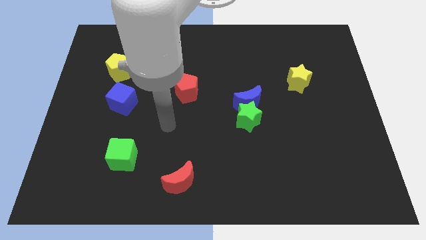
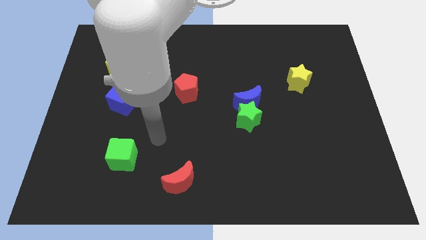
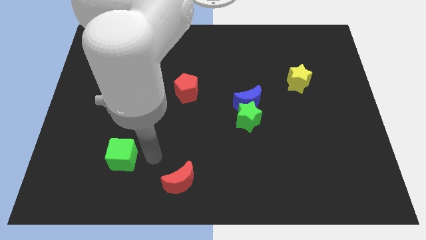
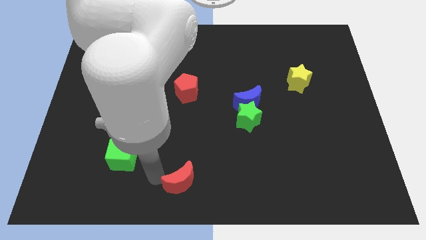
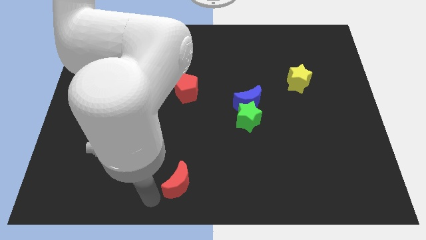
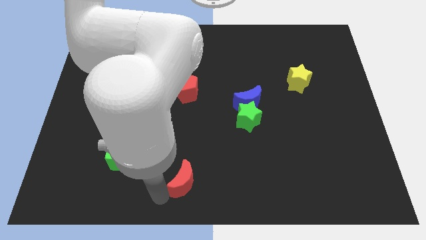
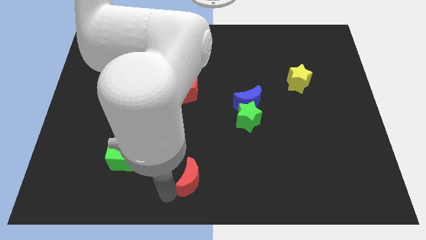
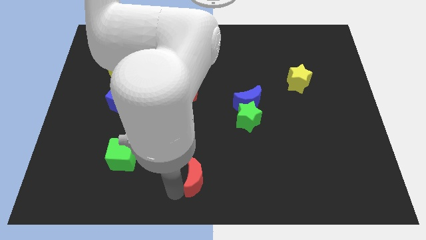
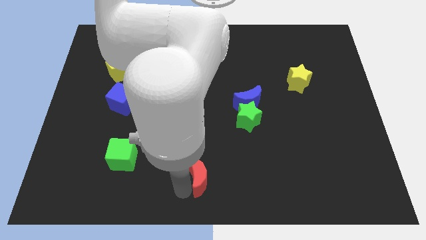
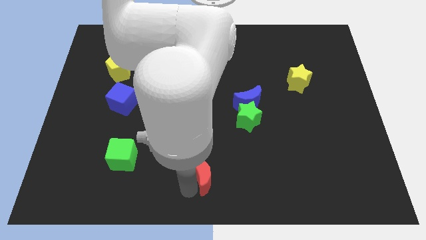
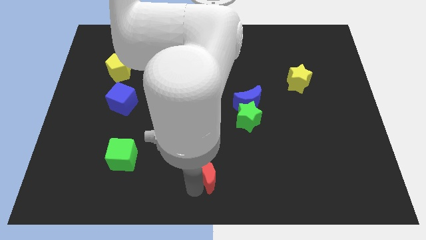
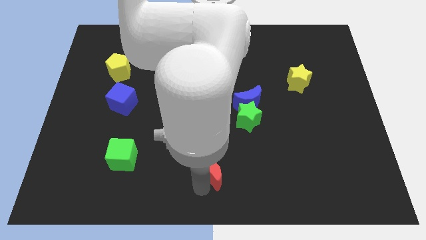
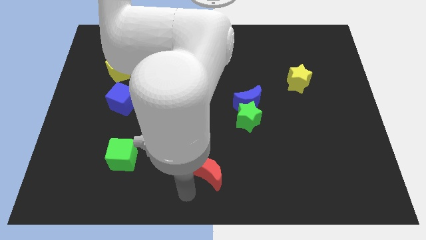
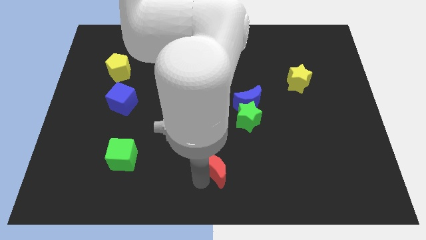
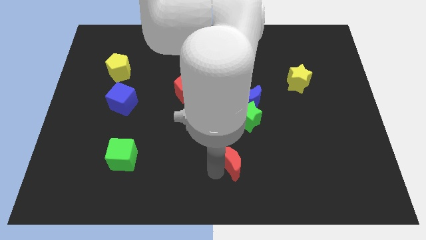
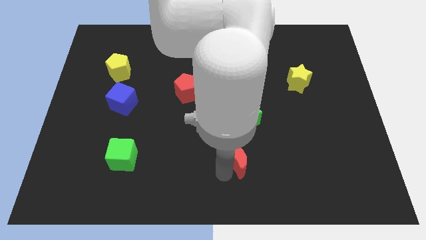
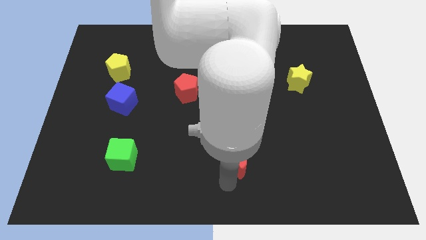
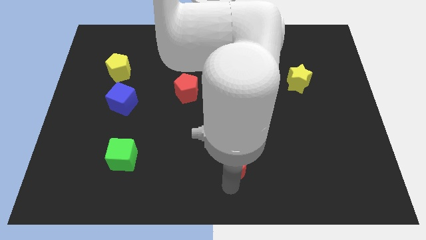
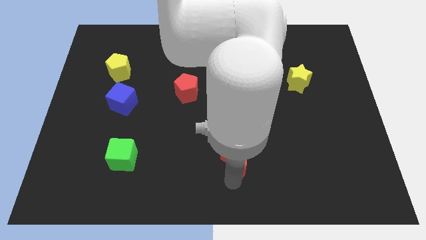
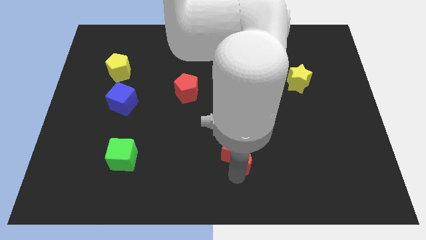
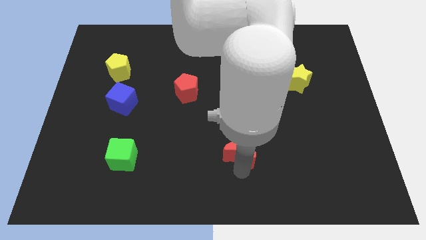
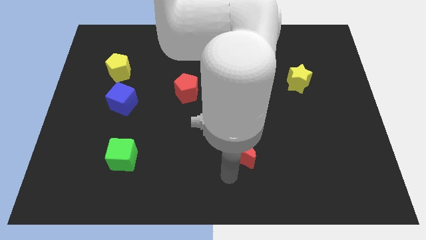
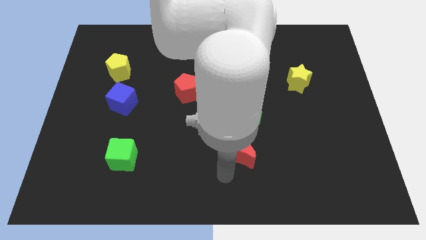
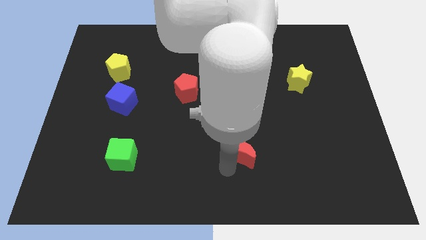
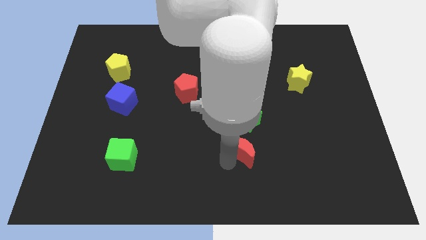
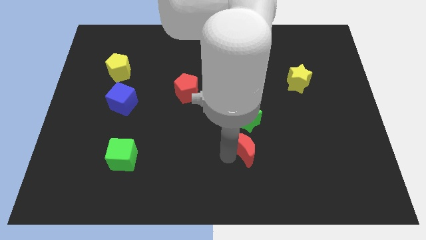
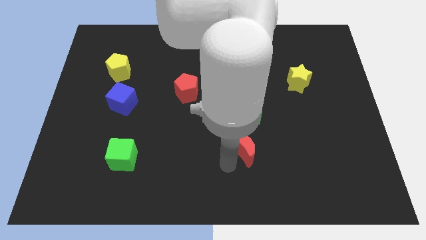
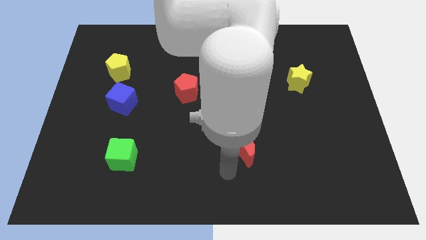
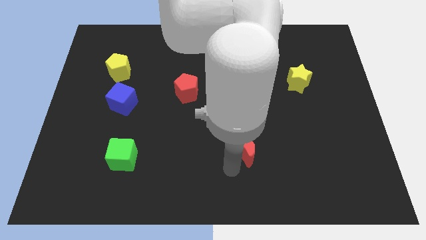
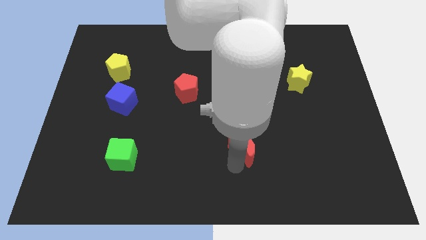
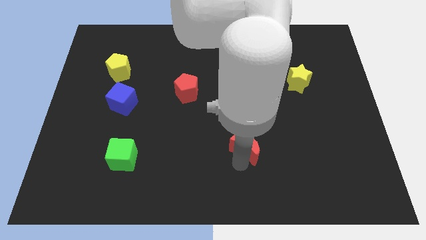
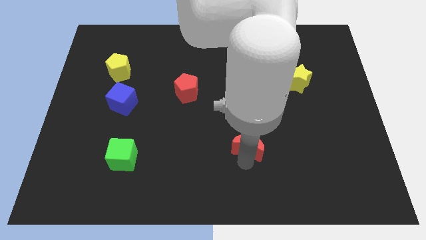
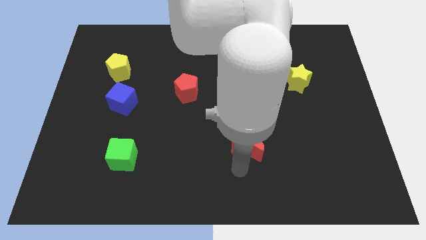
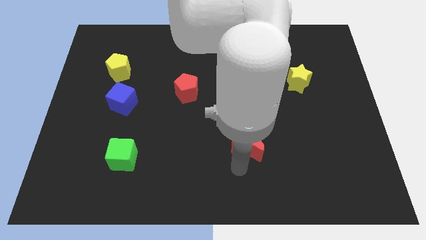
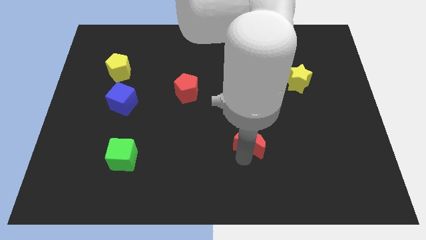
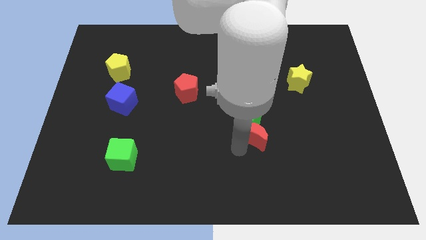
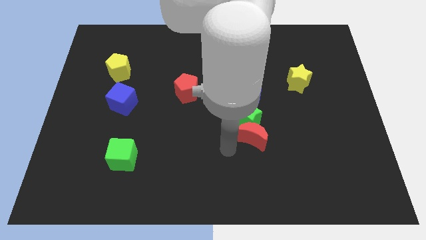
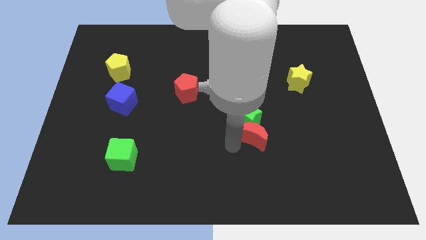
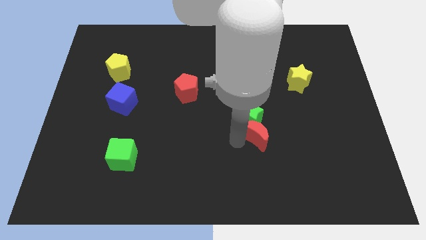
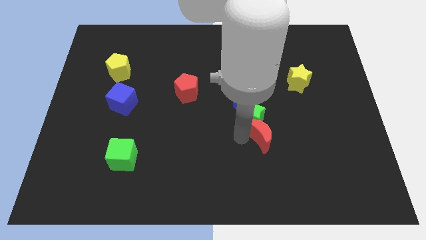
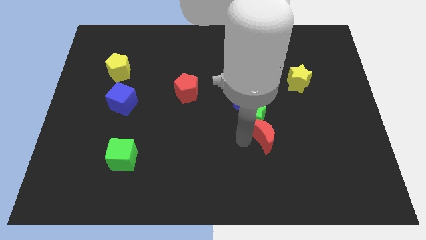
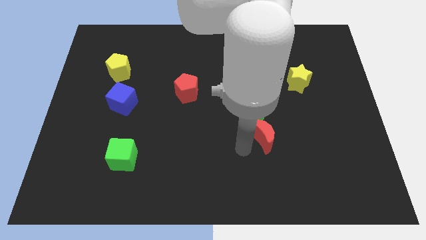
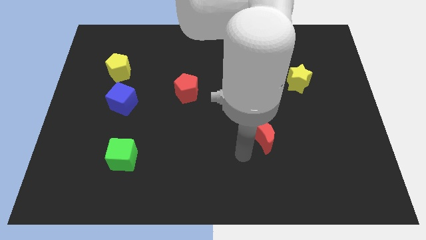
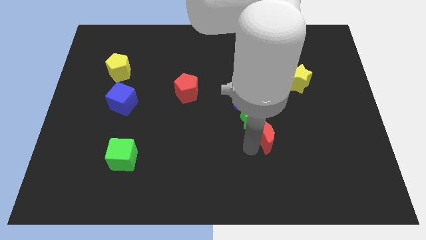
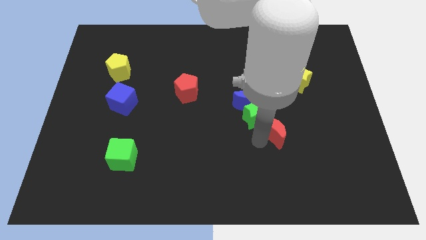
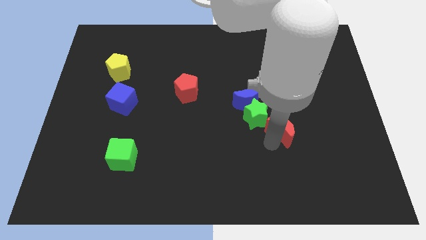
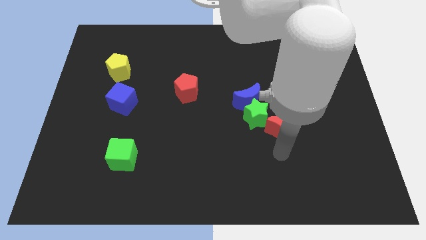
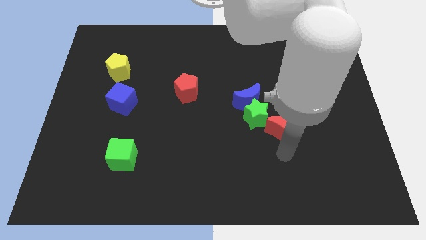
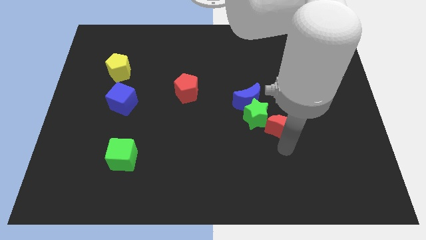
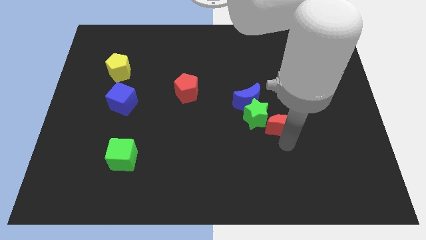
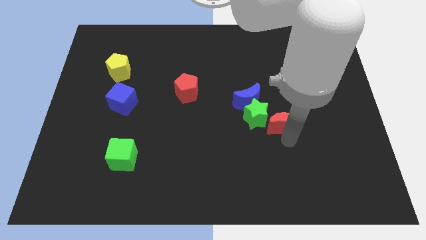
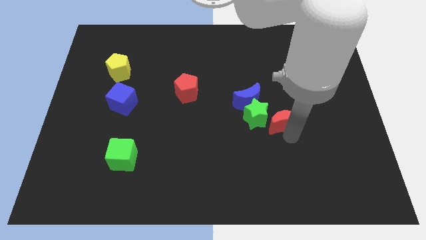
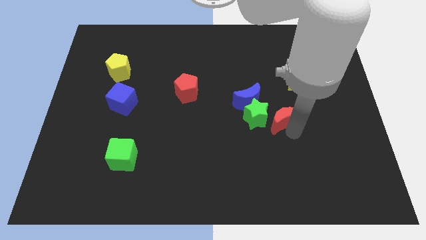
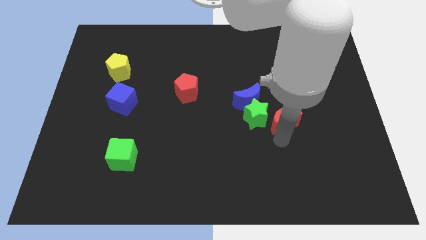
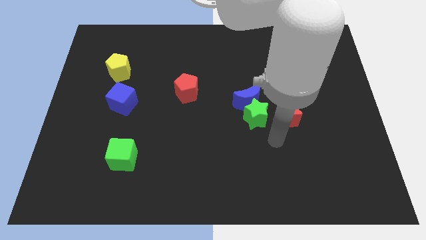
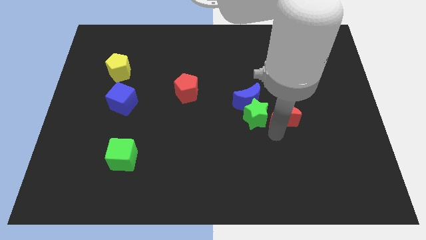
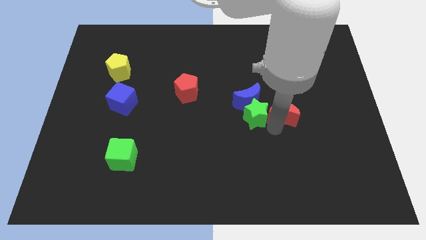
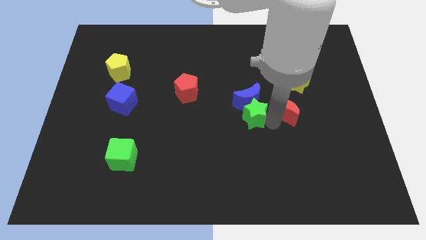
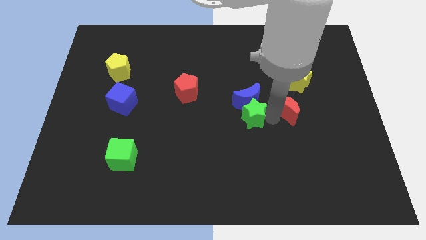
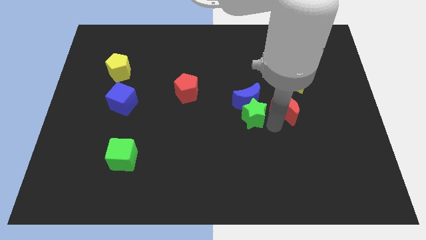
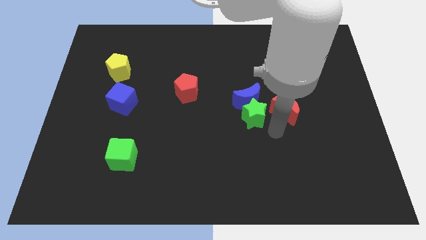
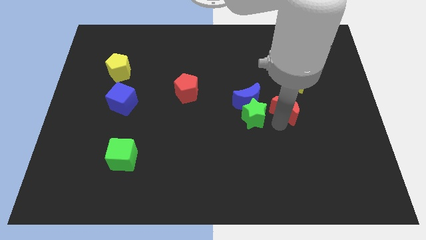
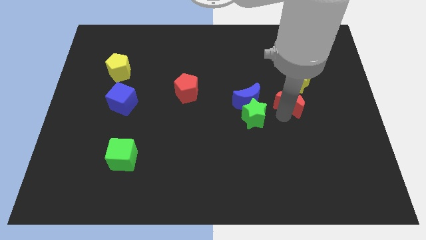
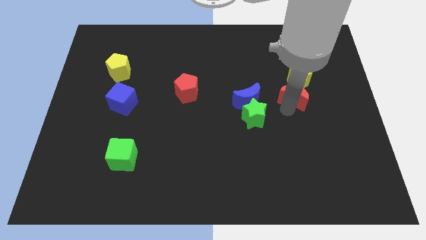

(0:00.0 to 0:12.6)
slide the red moon close to the yellow star

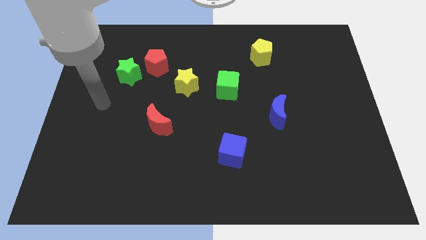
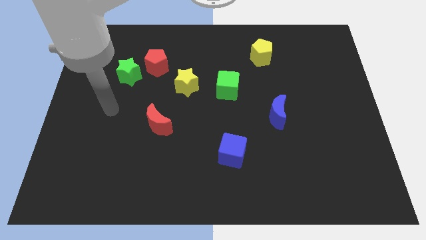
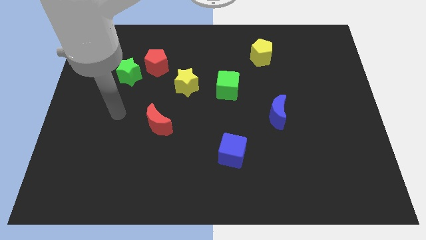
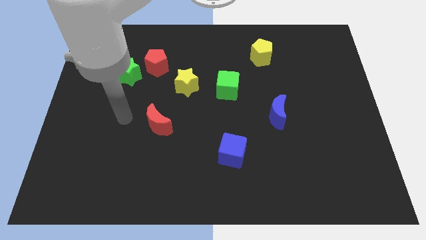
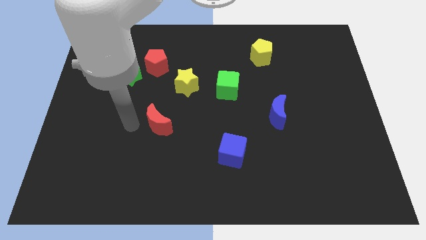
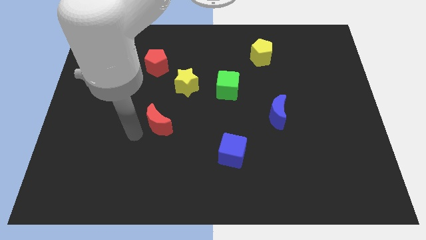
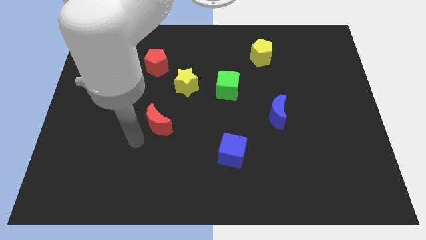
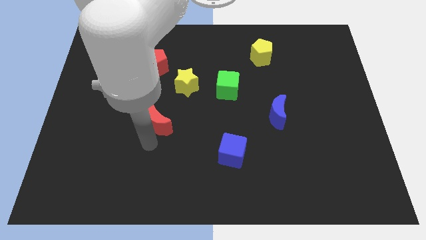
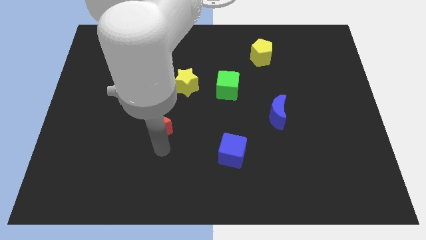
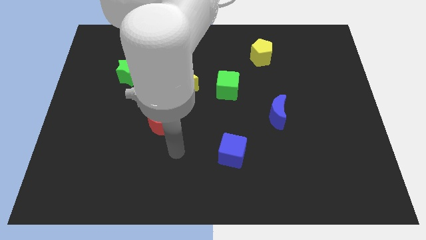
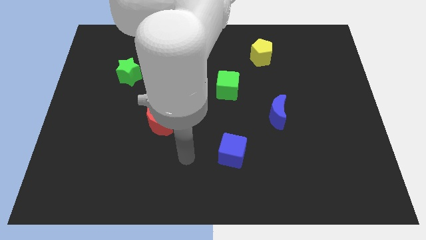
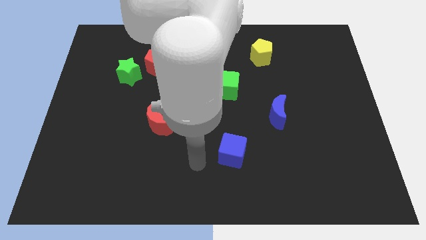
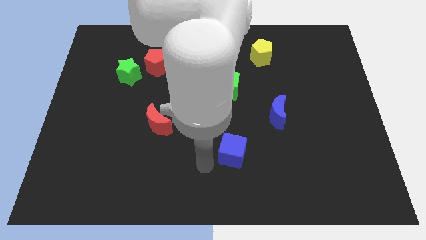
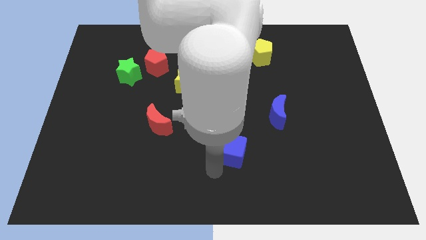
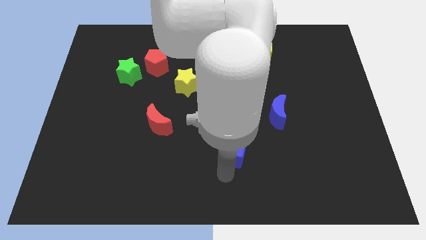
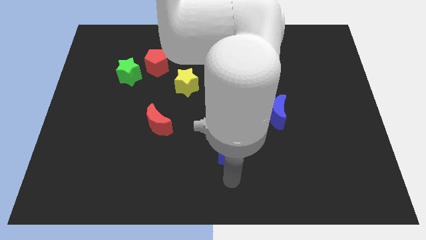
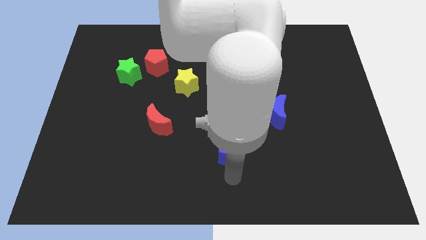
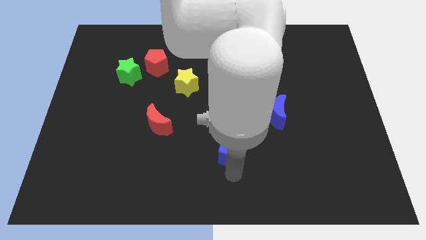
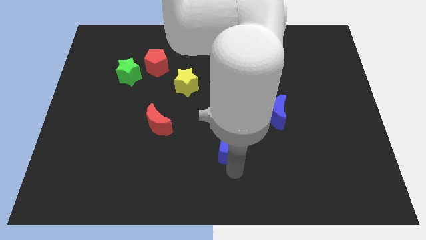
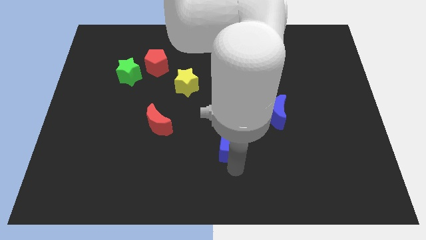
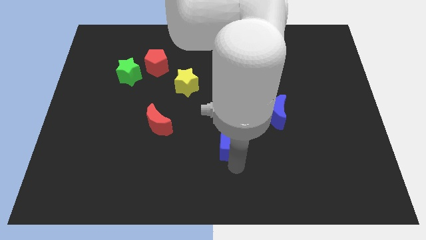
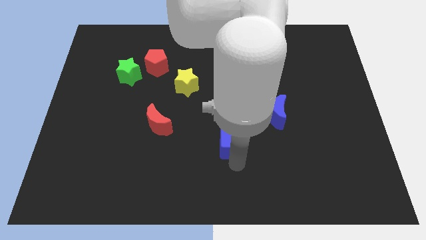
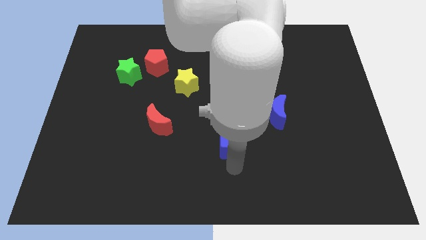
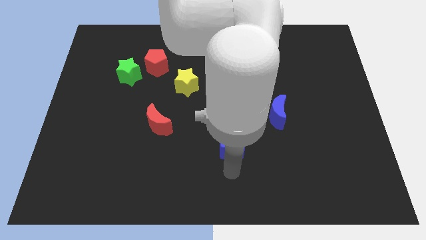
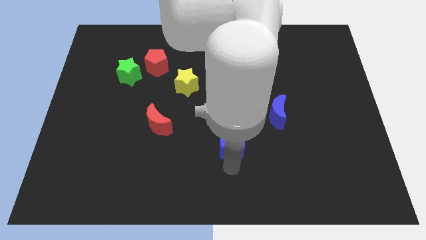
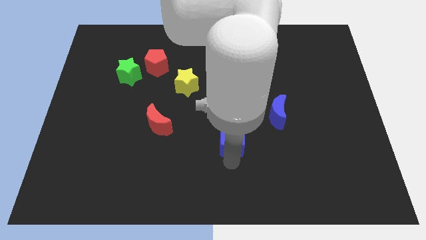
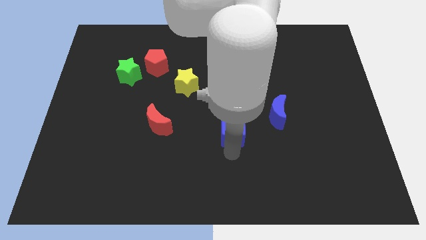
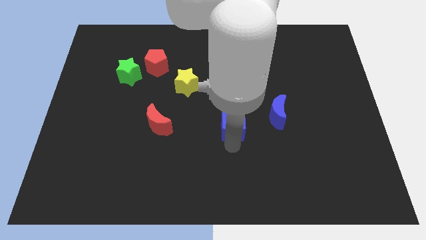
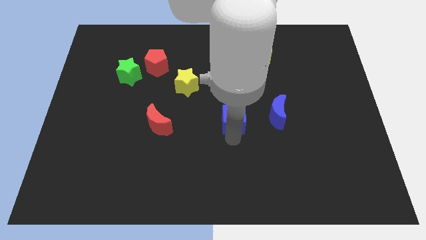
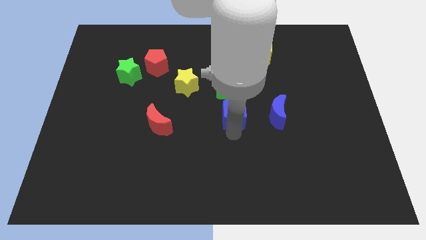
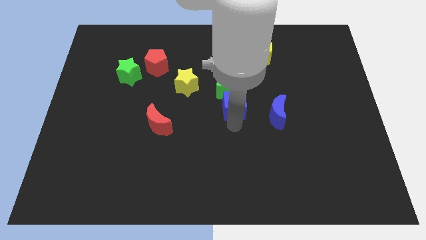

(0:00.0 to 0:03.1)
slide the blue cube towards the green cube
